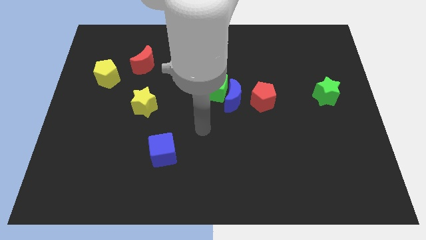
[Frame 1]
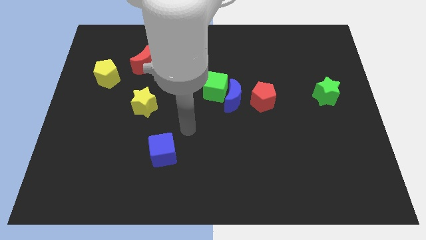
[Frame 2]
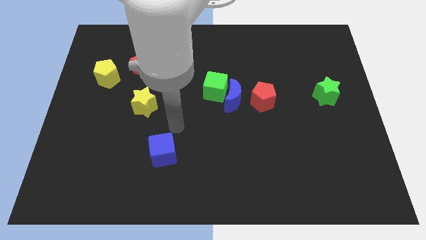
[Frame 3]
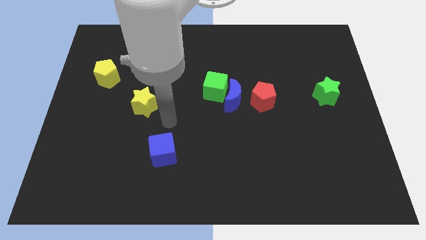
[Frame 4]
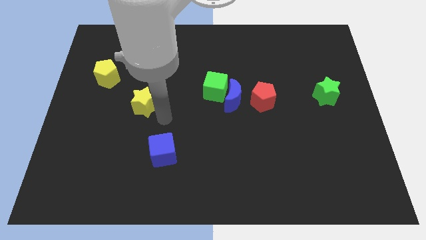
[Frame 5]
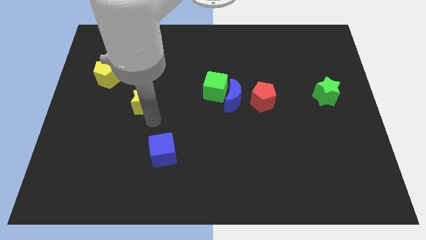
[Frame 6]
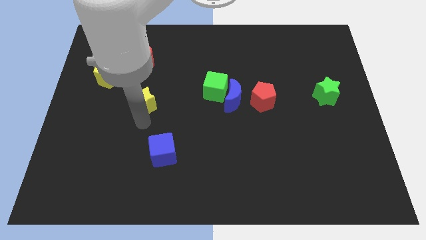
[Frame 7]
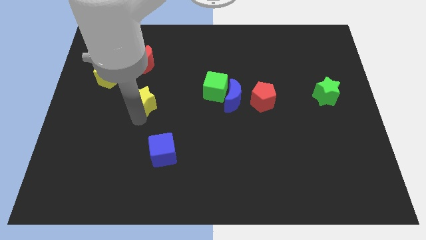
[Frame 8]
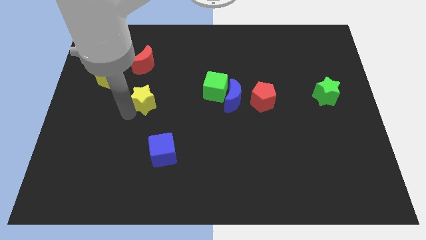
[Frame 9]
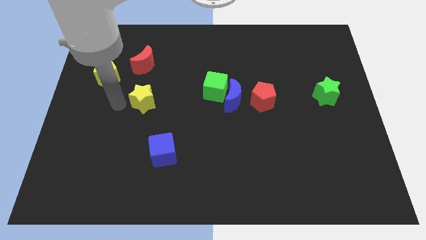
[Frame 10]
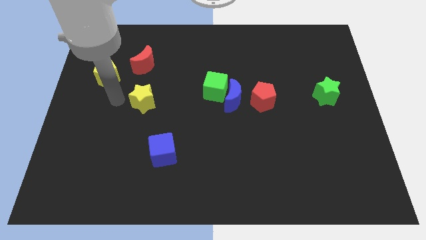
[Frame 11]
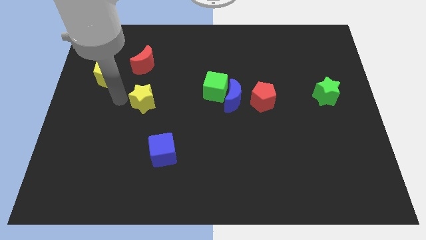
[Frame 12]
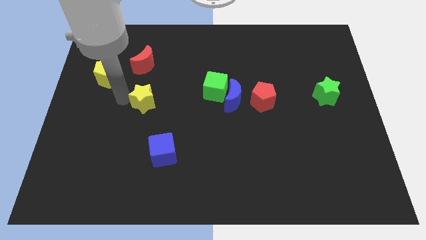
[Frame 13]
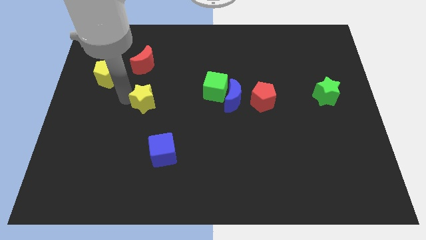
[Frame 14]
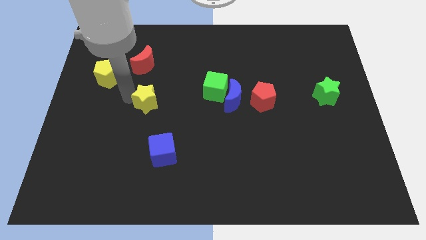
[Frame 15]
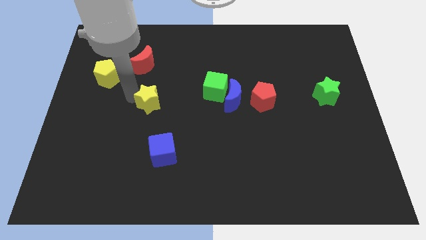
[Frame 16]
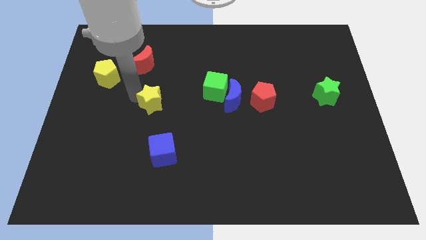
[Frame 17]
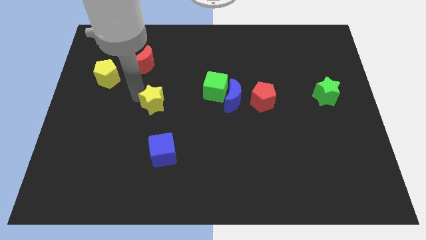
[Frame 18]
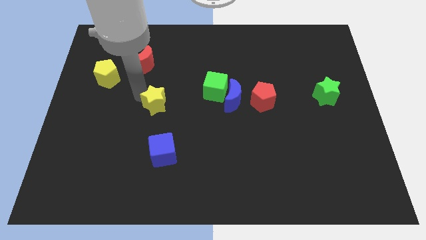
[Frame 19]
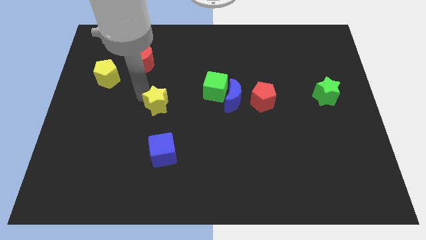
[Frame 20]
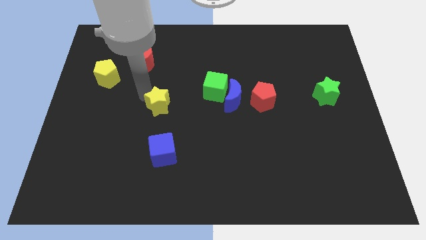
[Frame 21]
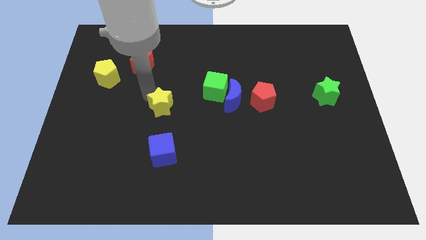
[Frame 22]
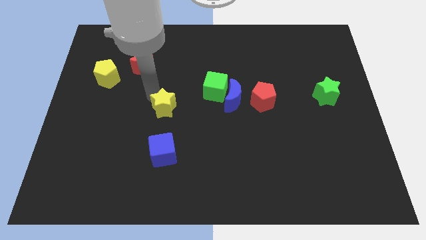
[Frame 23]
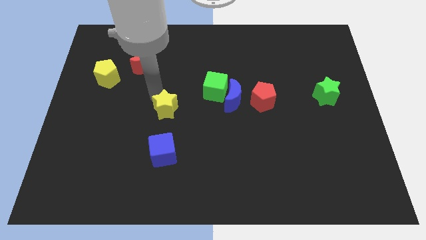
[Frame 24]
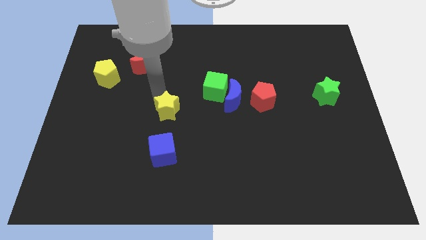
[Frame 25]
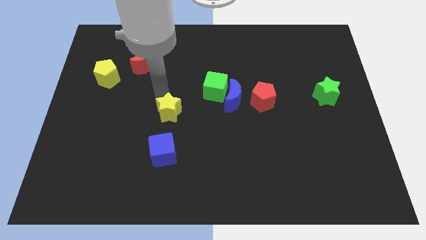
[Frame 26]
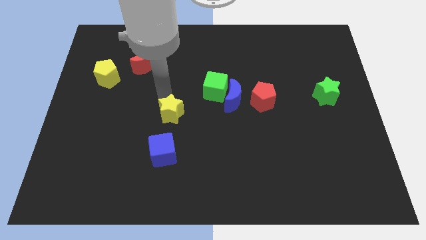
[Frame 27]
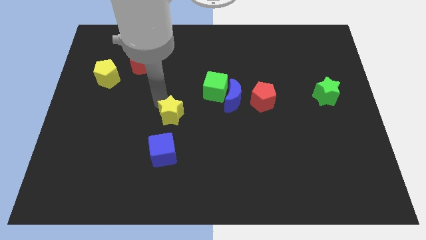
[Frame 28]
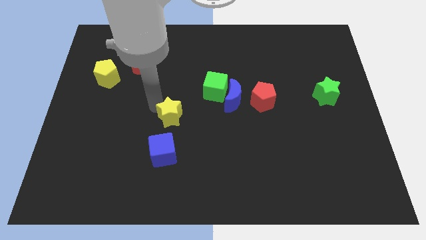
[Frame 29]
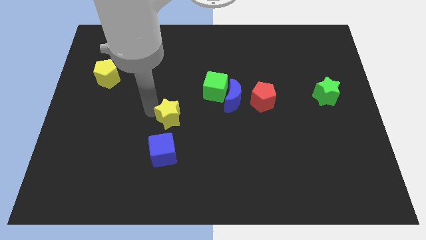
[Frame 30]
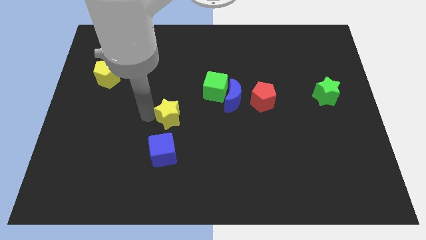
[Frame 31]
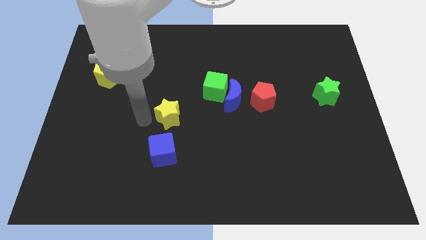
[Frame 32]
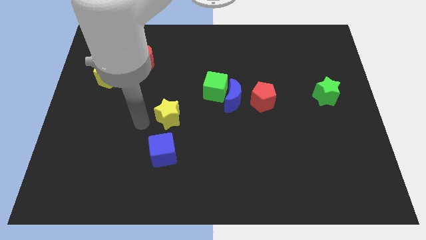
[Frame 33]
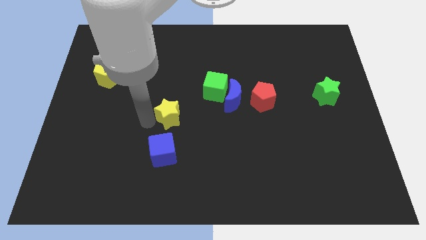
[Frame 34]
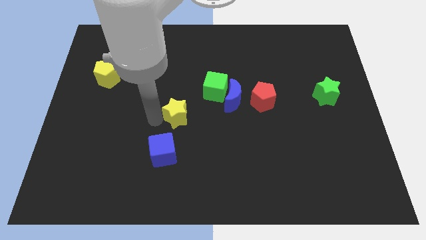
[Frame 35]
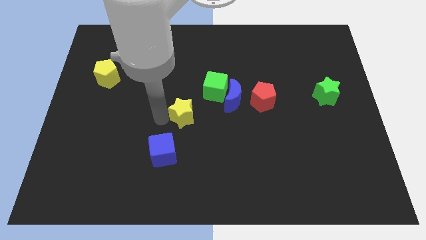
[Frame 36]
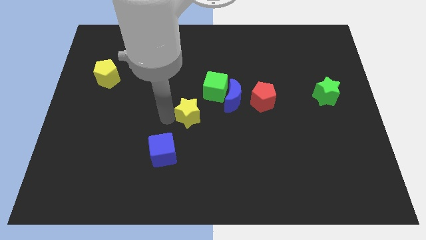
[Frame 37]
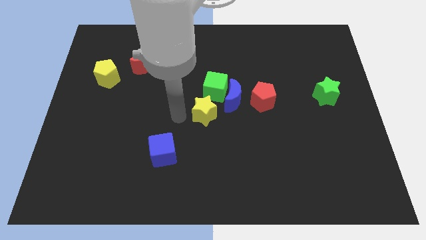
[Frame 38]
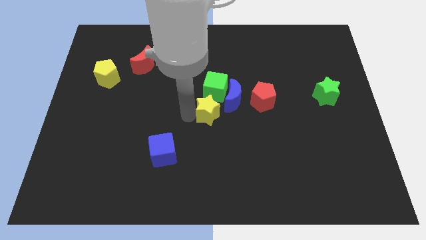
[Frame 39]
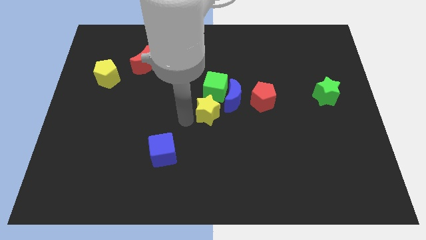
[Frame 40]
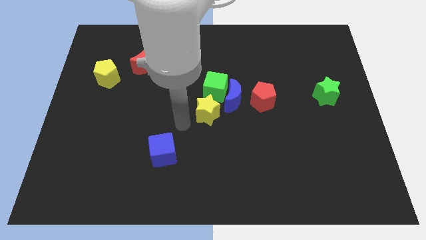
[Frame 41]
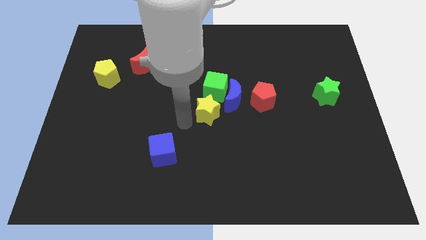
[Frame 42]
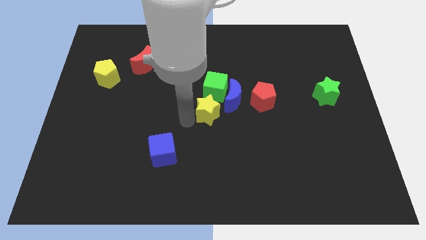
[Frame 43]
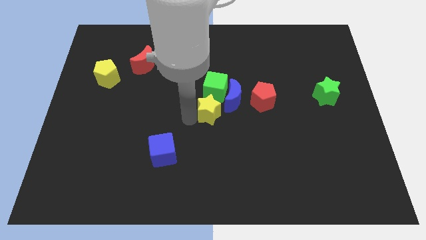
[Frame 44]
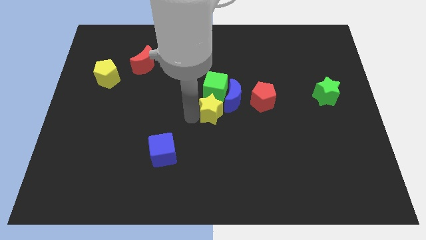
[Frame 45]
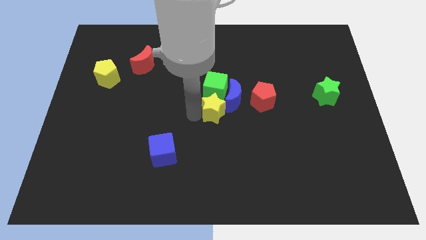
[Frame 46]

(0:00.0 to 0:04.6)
push the yellow star towards the blue moon

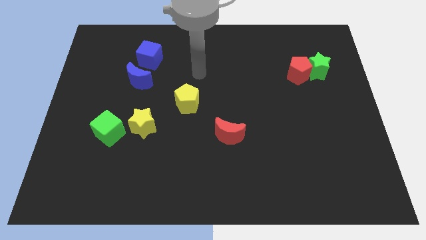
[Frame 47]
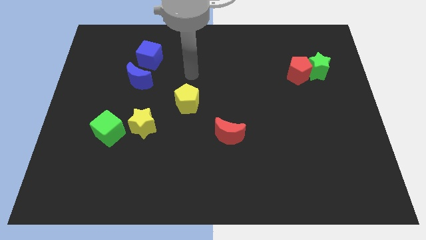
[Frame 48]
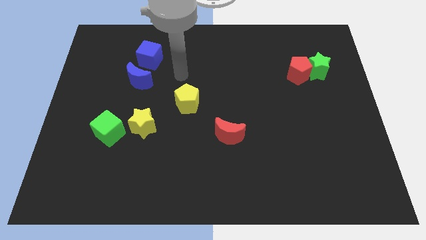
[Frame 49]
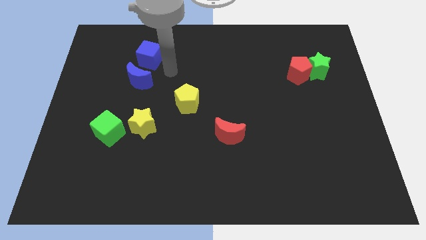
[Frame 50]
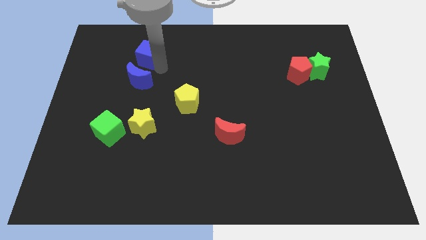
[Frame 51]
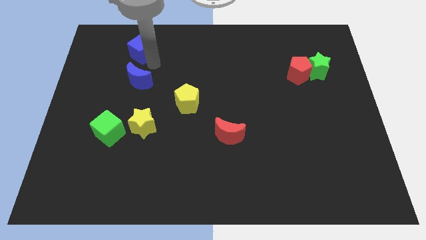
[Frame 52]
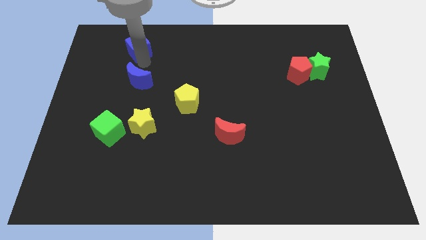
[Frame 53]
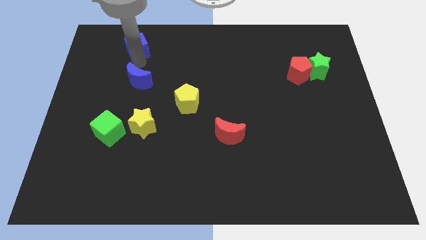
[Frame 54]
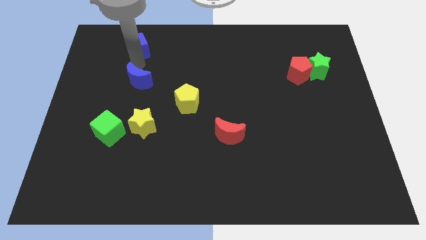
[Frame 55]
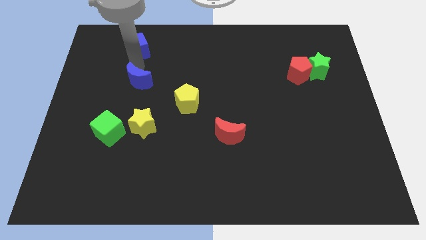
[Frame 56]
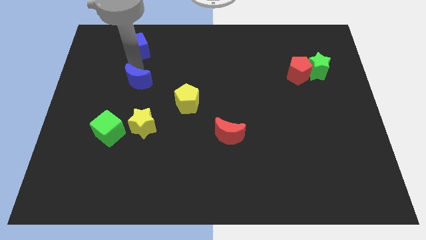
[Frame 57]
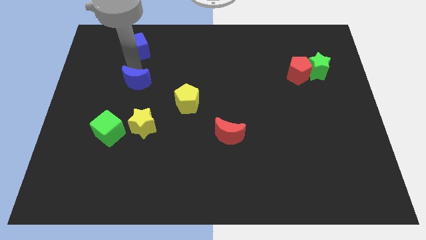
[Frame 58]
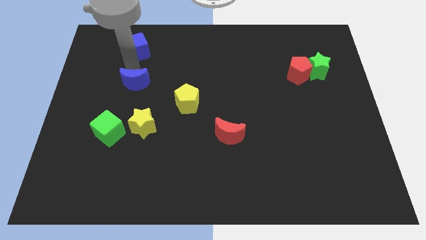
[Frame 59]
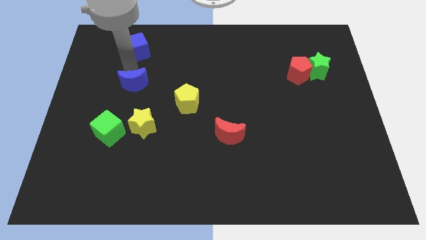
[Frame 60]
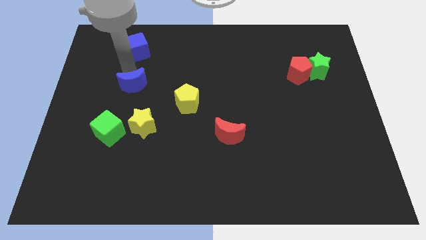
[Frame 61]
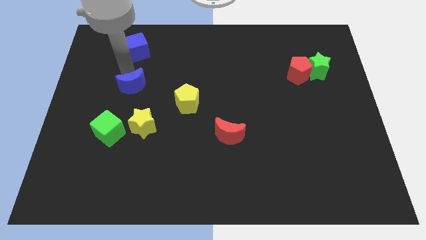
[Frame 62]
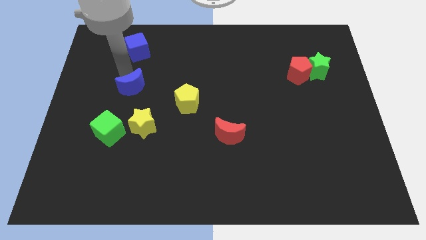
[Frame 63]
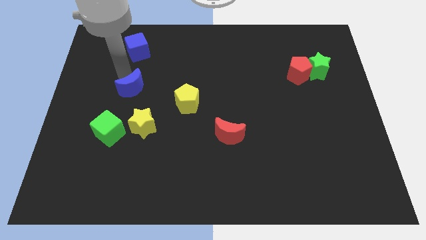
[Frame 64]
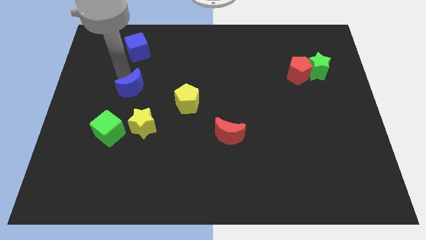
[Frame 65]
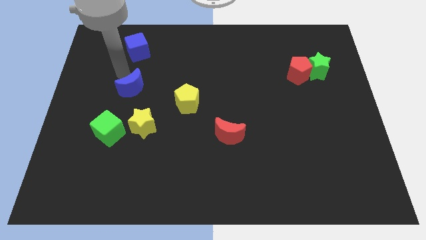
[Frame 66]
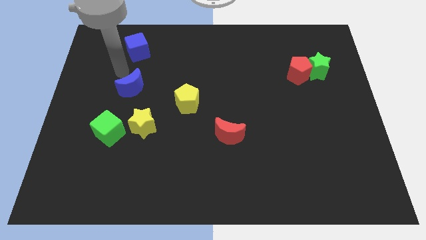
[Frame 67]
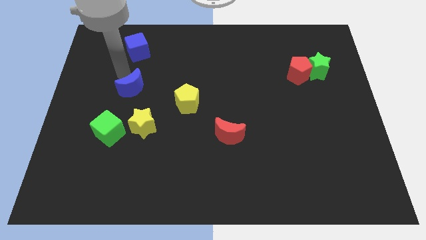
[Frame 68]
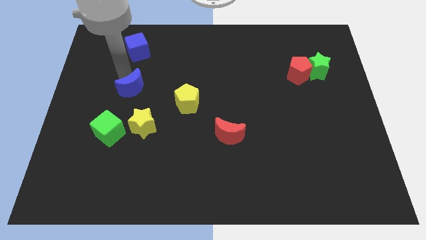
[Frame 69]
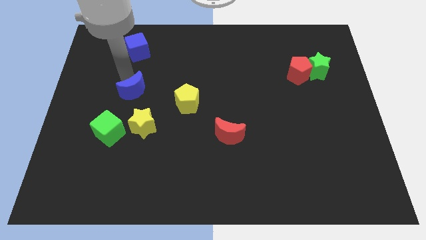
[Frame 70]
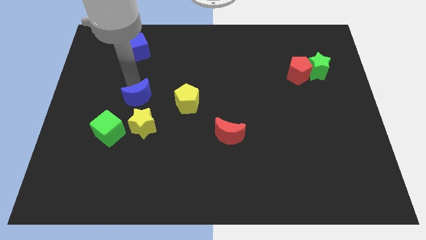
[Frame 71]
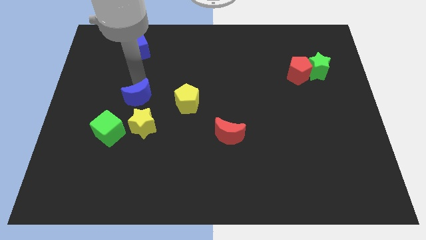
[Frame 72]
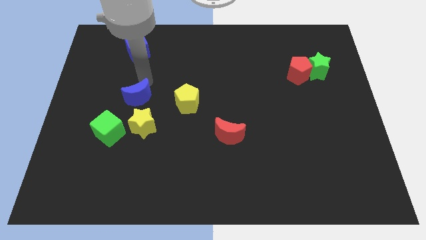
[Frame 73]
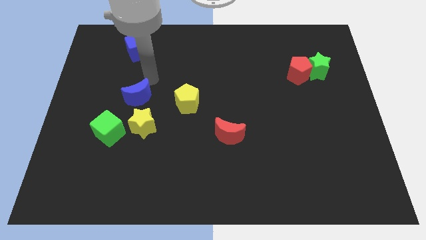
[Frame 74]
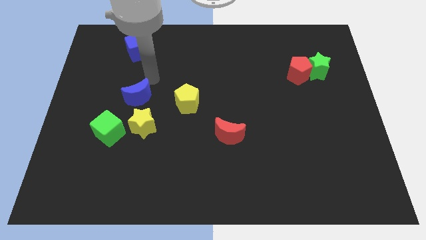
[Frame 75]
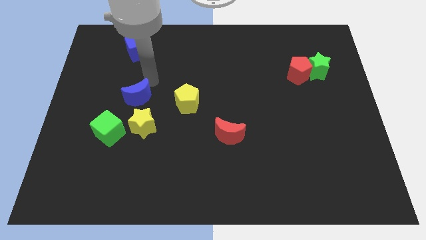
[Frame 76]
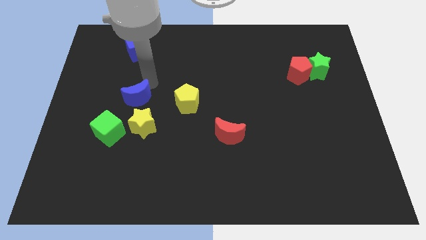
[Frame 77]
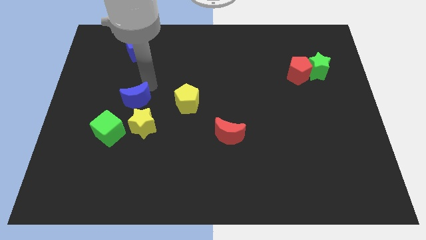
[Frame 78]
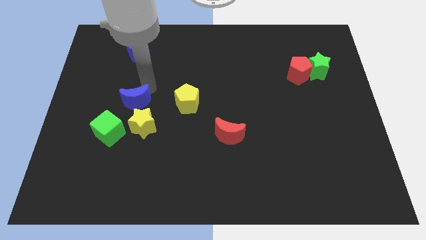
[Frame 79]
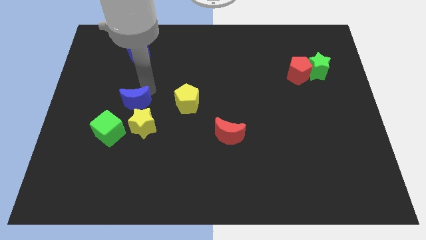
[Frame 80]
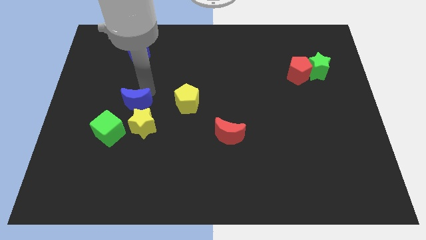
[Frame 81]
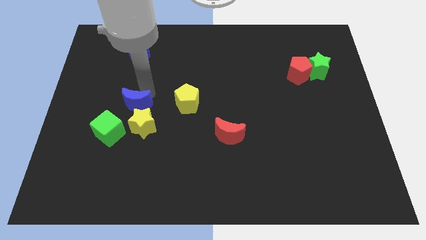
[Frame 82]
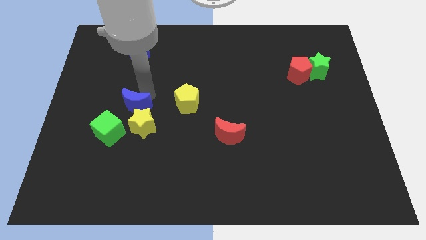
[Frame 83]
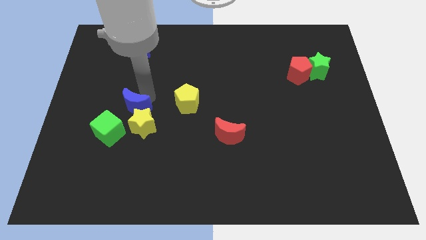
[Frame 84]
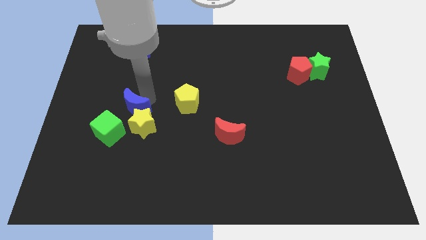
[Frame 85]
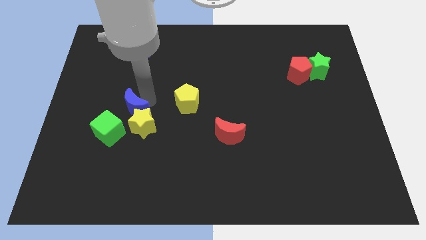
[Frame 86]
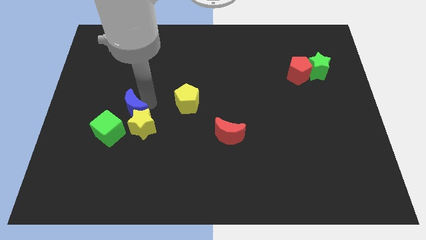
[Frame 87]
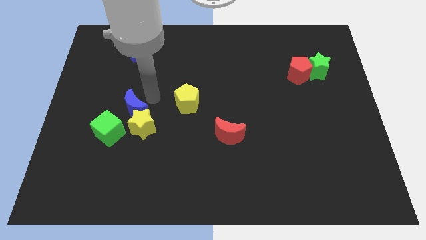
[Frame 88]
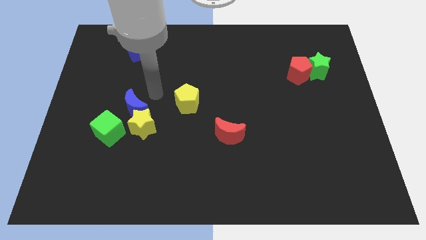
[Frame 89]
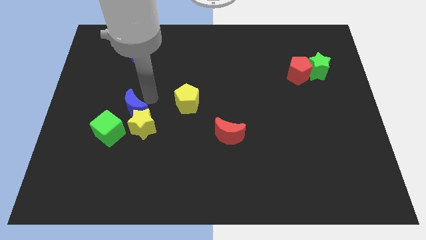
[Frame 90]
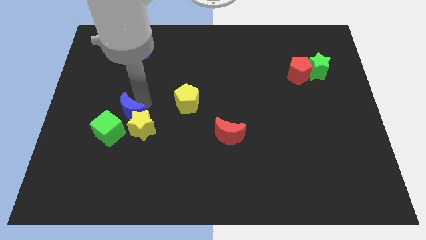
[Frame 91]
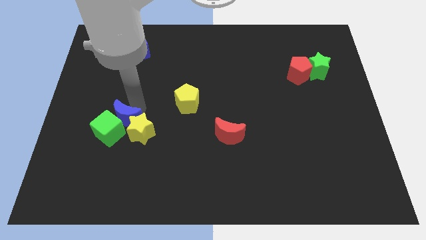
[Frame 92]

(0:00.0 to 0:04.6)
slide the blue moon to the green cube
